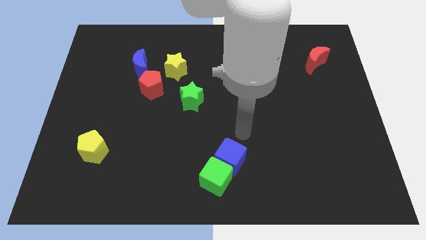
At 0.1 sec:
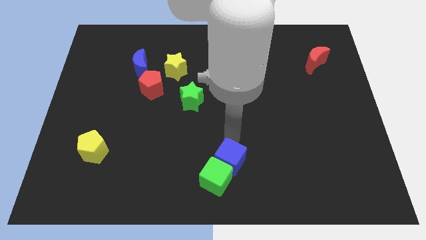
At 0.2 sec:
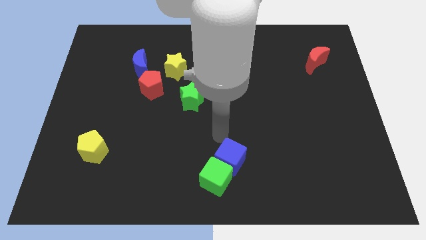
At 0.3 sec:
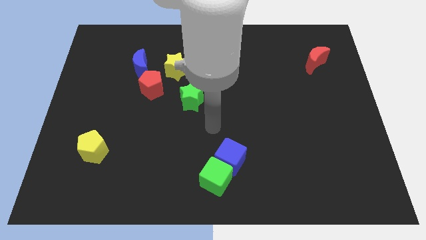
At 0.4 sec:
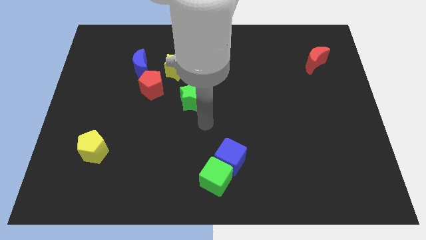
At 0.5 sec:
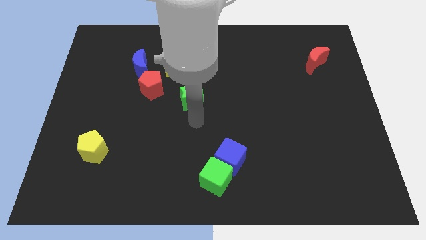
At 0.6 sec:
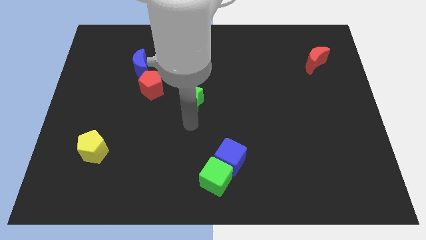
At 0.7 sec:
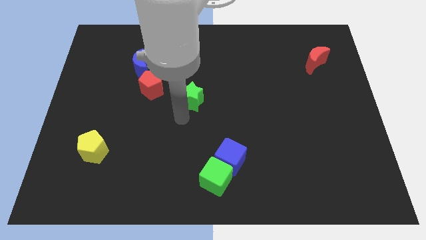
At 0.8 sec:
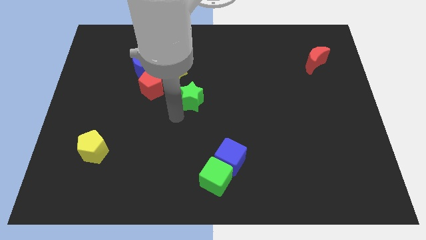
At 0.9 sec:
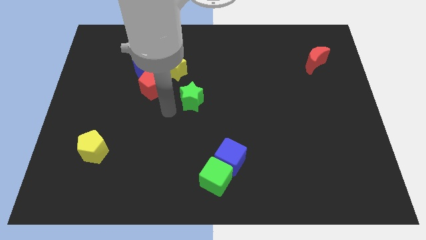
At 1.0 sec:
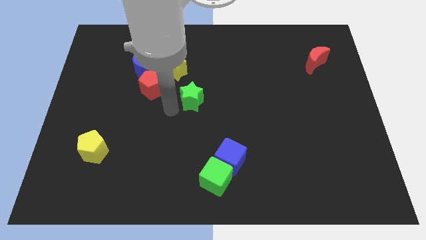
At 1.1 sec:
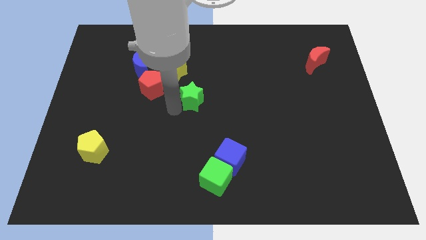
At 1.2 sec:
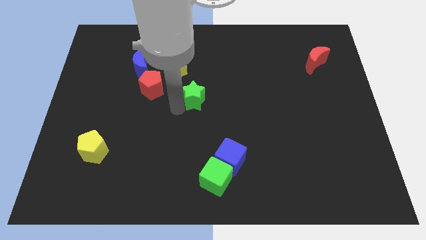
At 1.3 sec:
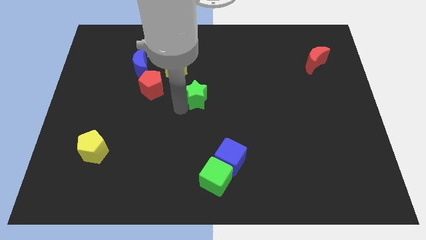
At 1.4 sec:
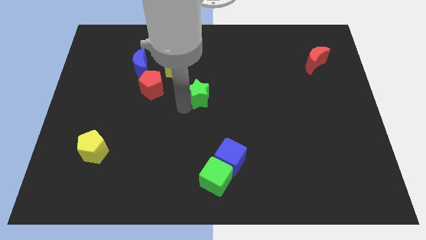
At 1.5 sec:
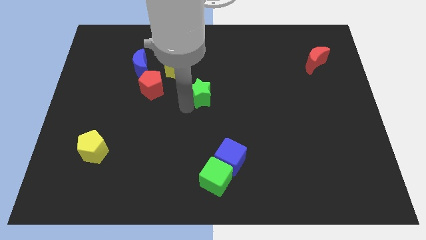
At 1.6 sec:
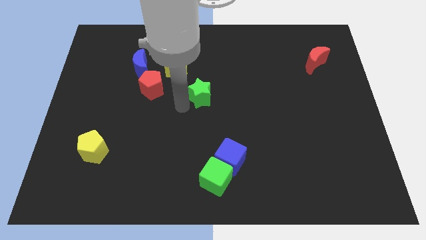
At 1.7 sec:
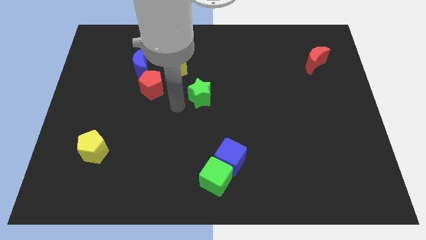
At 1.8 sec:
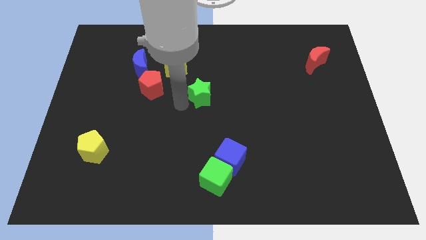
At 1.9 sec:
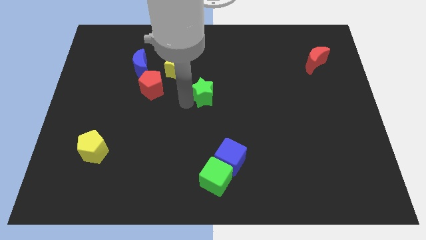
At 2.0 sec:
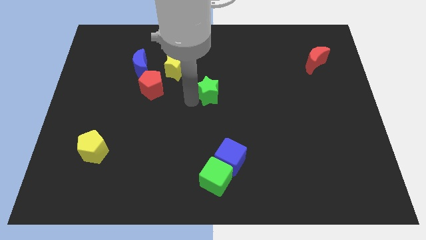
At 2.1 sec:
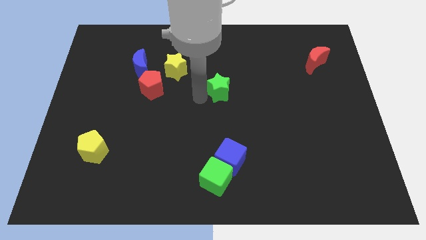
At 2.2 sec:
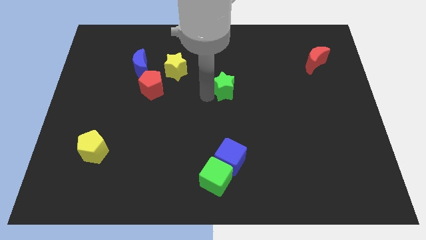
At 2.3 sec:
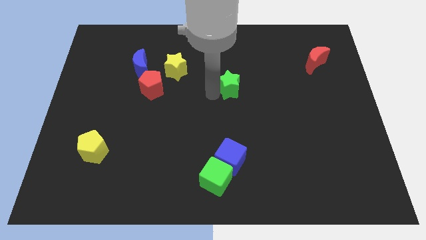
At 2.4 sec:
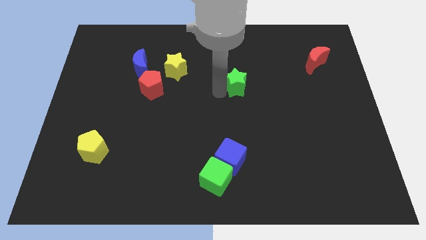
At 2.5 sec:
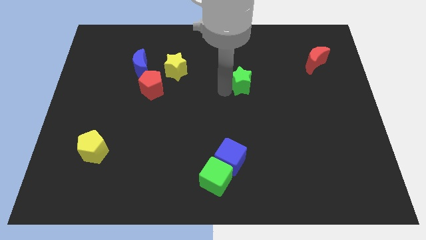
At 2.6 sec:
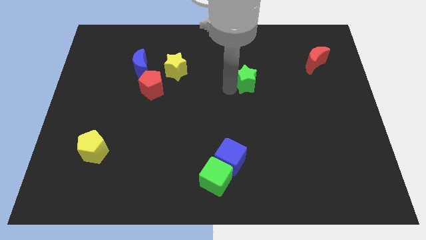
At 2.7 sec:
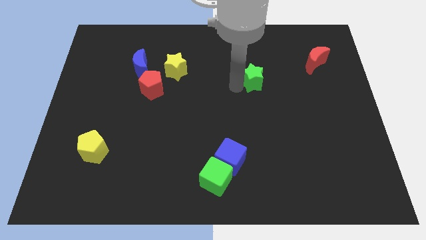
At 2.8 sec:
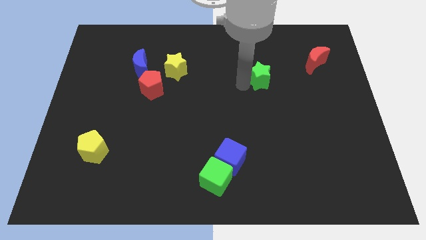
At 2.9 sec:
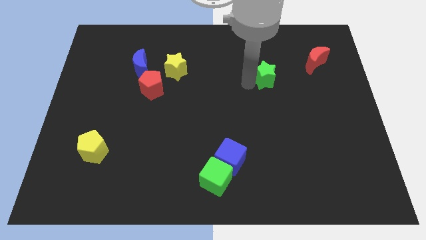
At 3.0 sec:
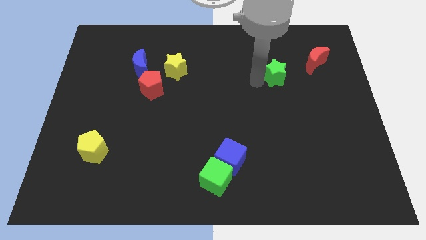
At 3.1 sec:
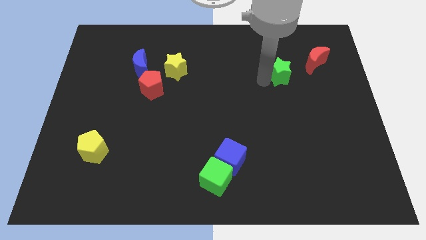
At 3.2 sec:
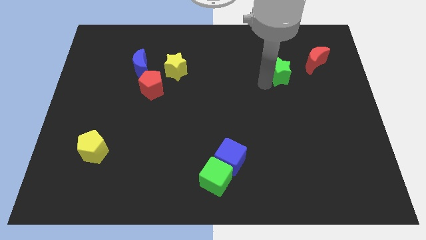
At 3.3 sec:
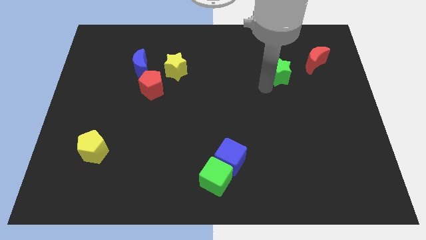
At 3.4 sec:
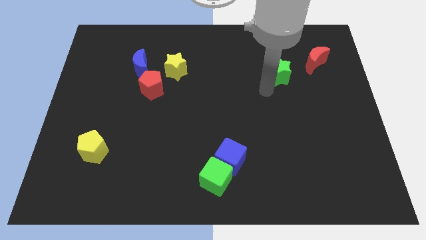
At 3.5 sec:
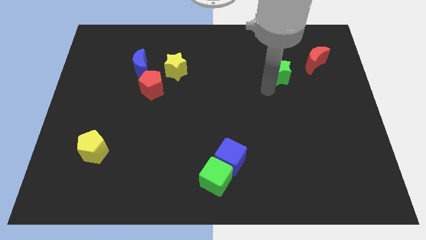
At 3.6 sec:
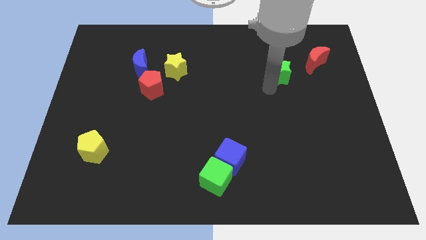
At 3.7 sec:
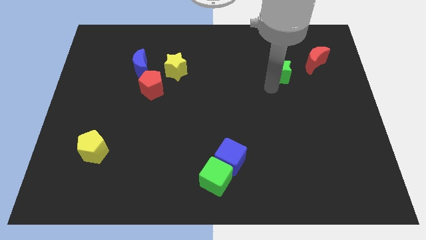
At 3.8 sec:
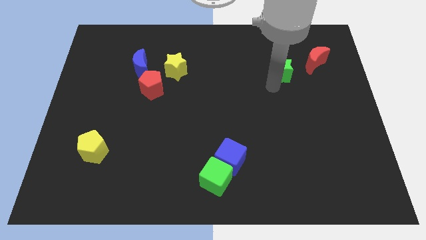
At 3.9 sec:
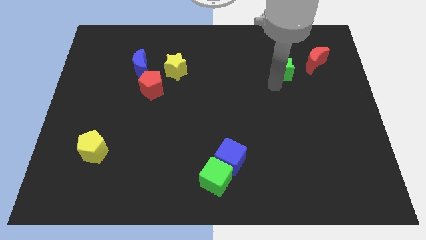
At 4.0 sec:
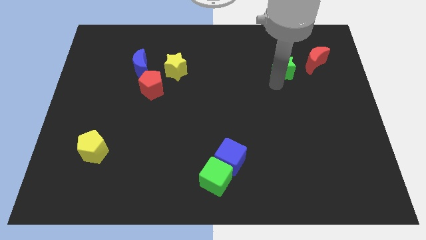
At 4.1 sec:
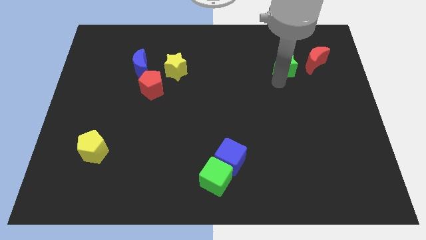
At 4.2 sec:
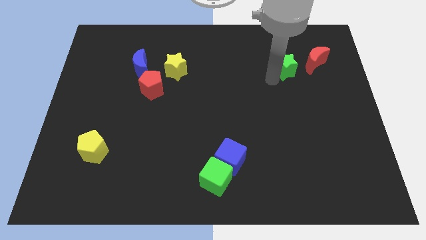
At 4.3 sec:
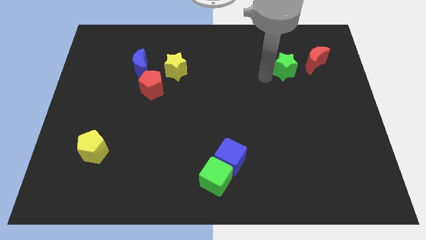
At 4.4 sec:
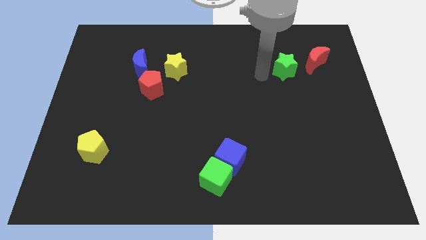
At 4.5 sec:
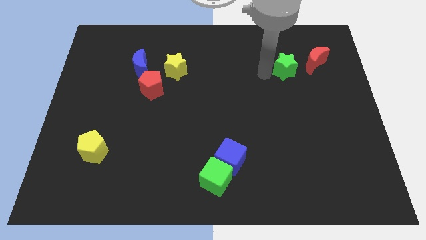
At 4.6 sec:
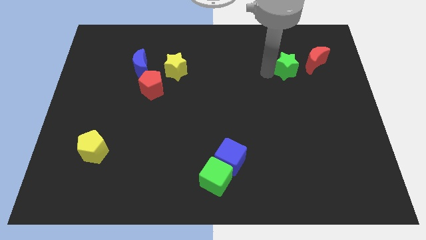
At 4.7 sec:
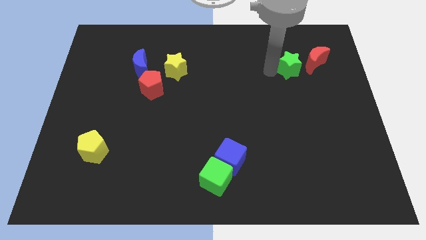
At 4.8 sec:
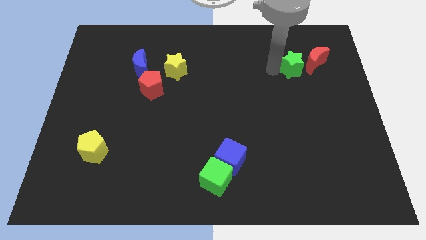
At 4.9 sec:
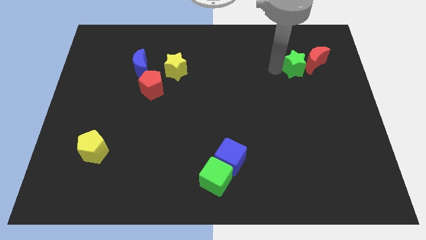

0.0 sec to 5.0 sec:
slide the green star towards the red moon

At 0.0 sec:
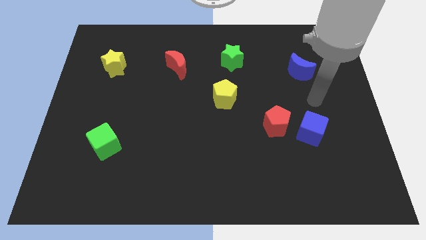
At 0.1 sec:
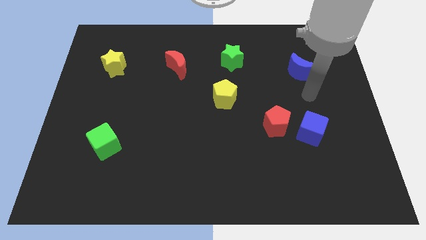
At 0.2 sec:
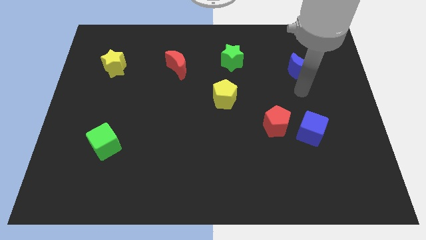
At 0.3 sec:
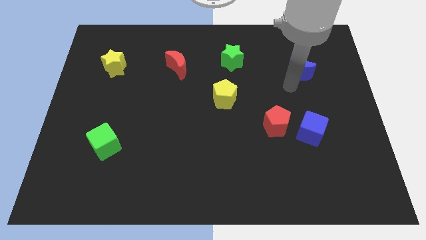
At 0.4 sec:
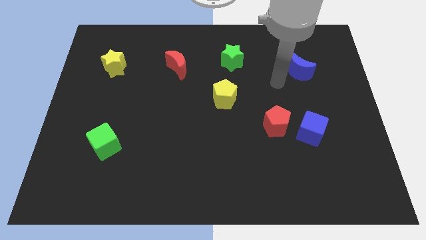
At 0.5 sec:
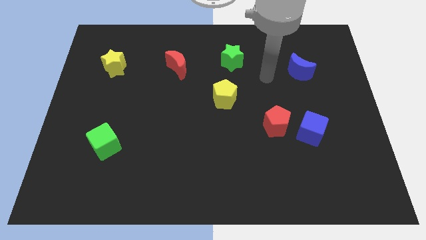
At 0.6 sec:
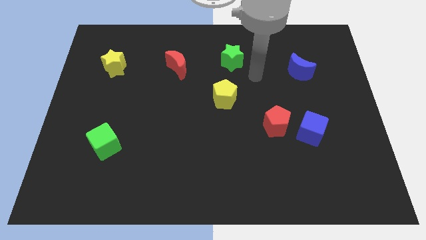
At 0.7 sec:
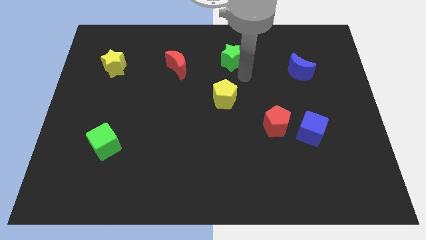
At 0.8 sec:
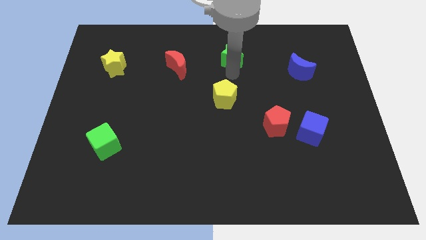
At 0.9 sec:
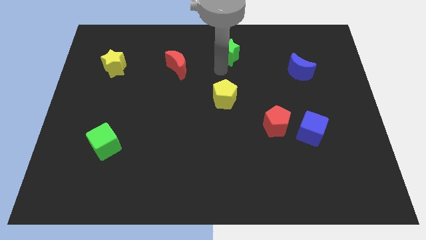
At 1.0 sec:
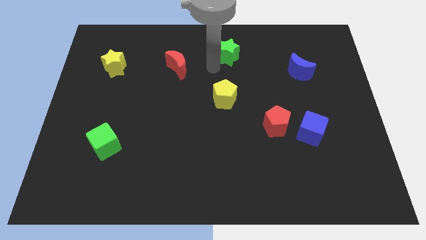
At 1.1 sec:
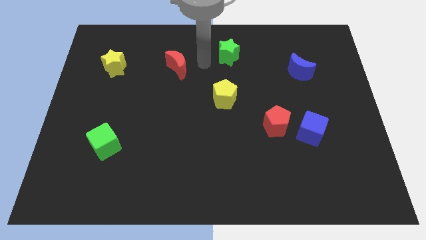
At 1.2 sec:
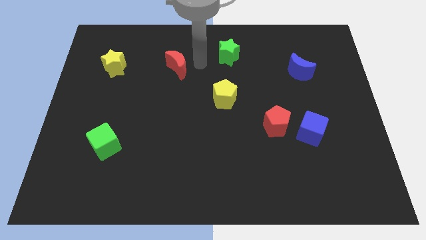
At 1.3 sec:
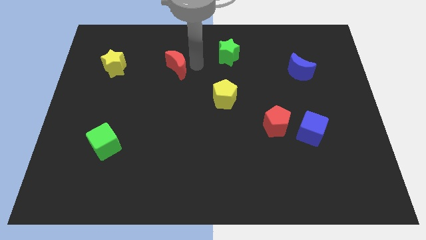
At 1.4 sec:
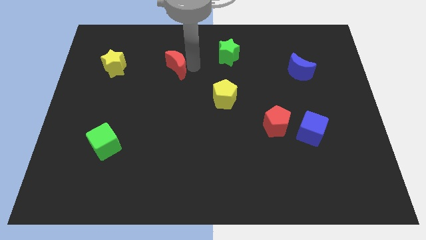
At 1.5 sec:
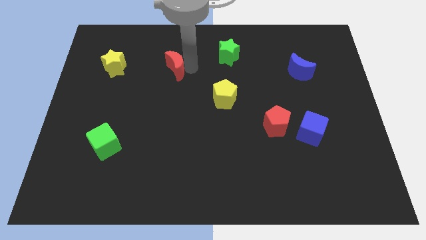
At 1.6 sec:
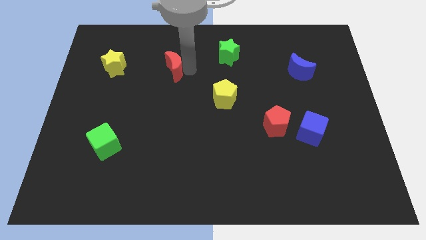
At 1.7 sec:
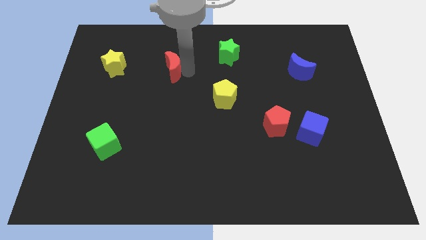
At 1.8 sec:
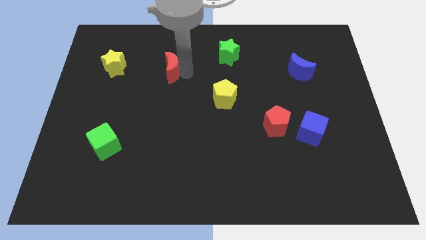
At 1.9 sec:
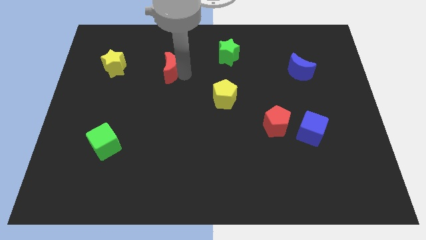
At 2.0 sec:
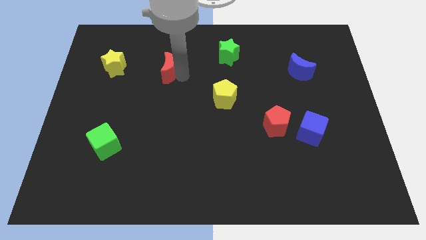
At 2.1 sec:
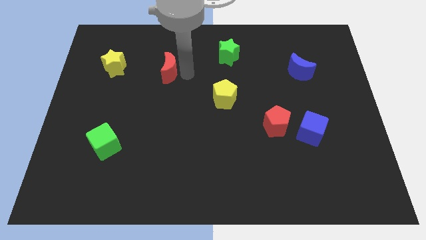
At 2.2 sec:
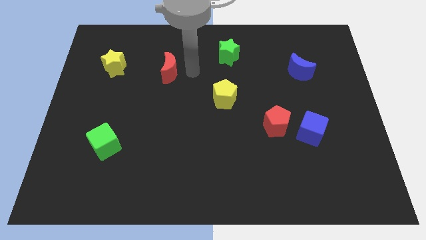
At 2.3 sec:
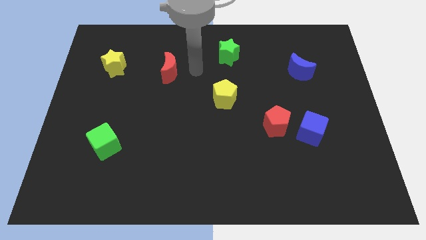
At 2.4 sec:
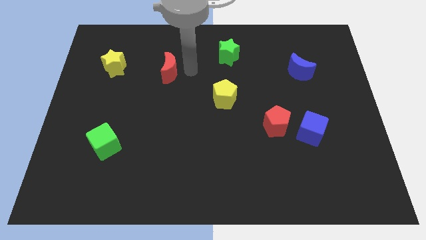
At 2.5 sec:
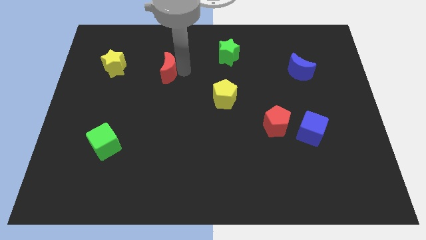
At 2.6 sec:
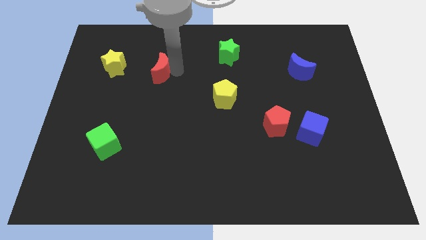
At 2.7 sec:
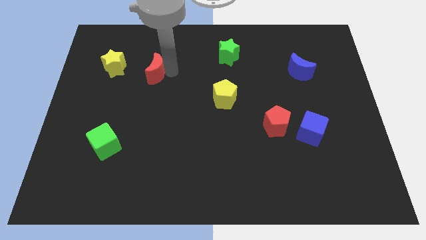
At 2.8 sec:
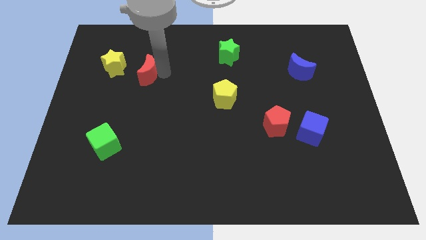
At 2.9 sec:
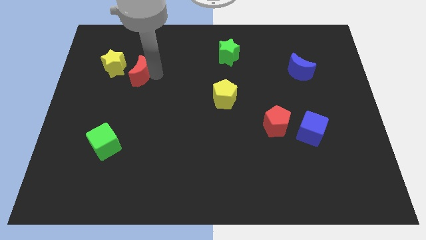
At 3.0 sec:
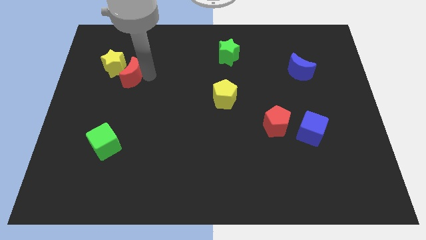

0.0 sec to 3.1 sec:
put the red moon towards the yellow star
